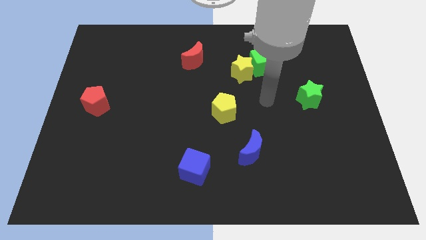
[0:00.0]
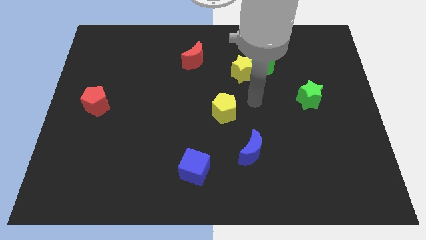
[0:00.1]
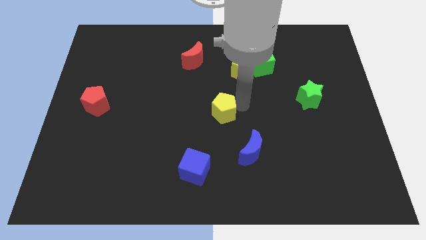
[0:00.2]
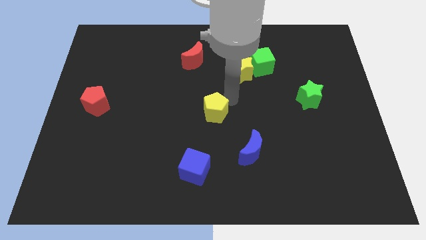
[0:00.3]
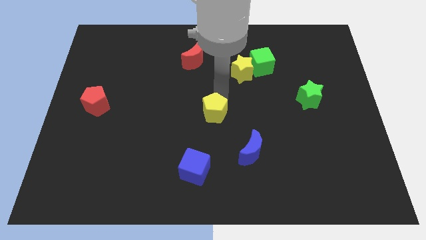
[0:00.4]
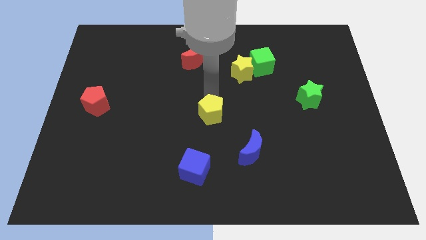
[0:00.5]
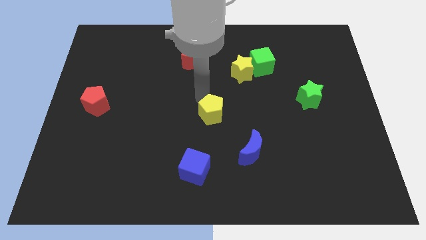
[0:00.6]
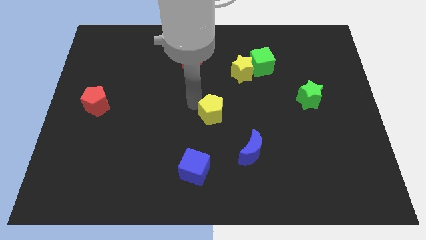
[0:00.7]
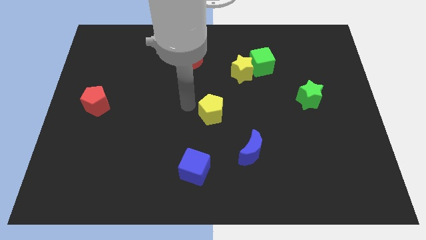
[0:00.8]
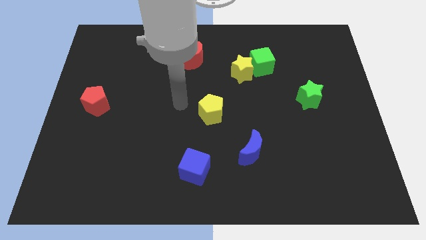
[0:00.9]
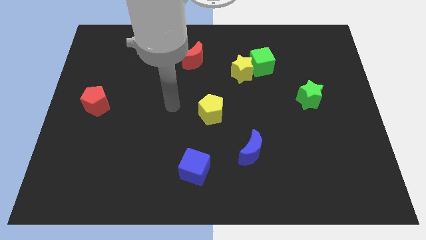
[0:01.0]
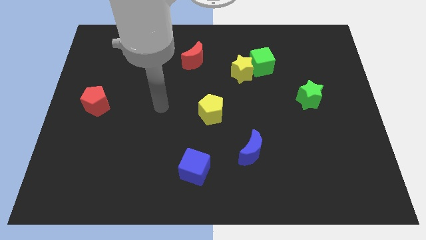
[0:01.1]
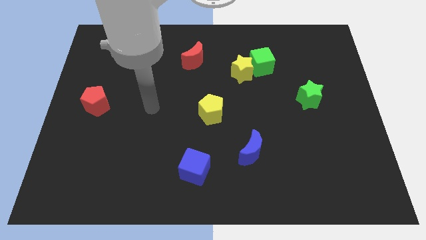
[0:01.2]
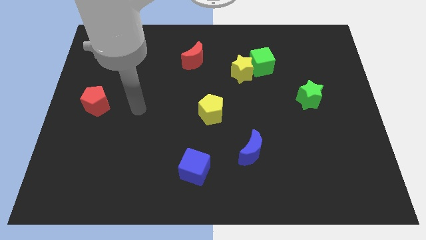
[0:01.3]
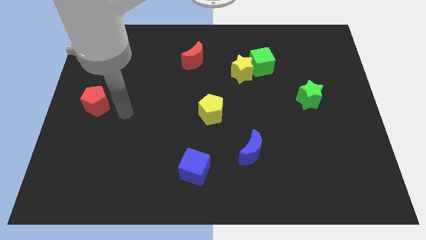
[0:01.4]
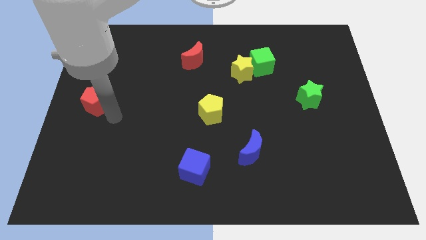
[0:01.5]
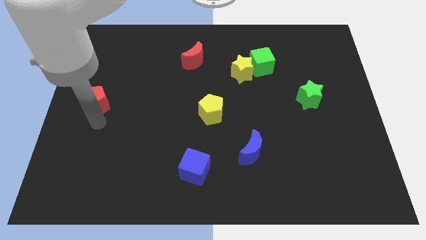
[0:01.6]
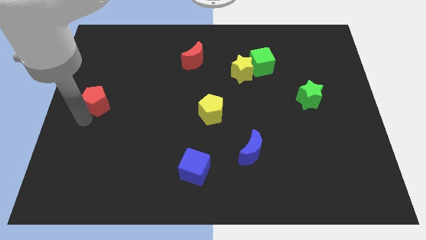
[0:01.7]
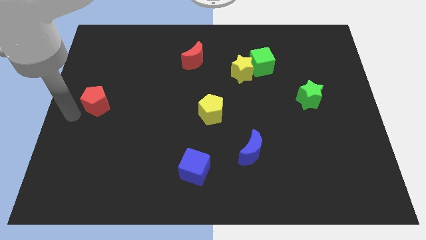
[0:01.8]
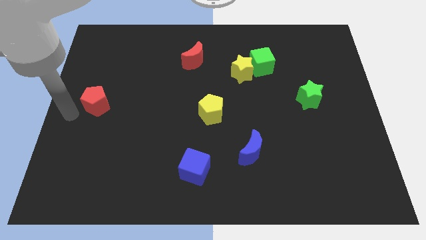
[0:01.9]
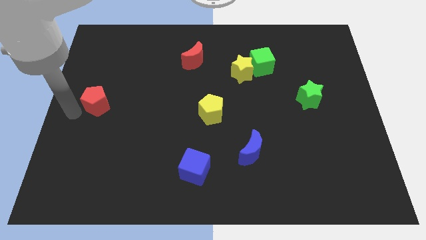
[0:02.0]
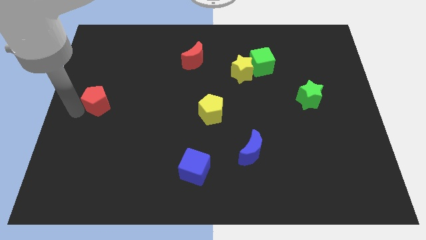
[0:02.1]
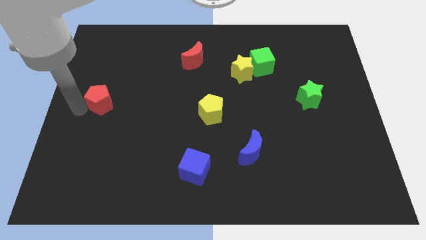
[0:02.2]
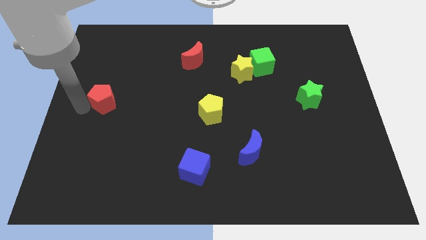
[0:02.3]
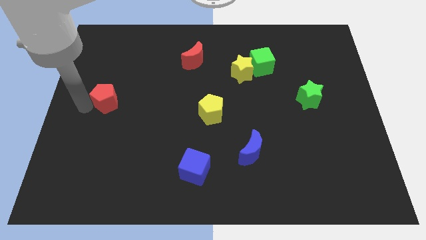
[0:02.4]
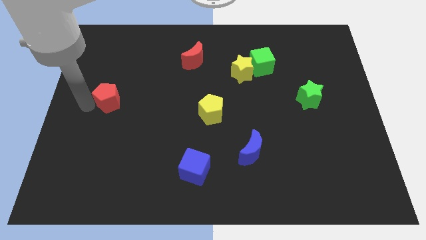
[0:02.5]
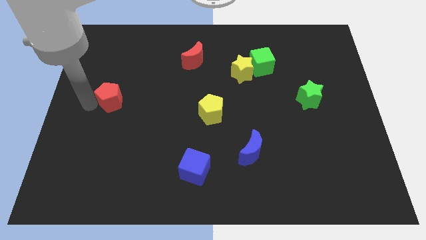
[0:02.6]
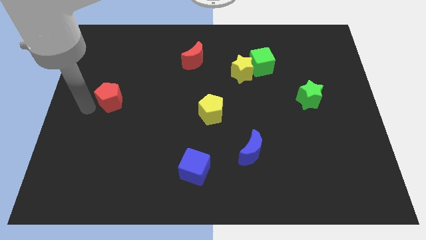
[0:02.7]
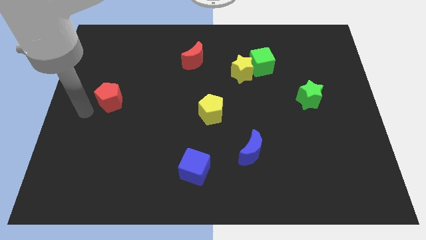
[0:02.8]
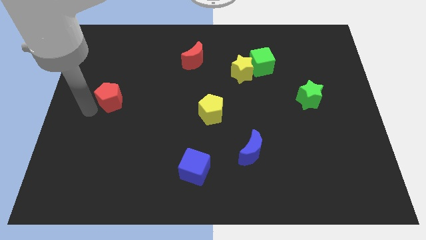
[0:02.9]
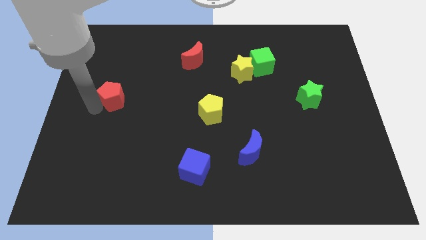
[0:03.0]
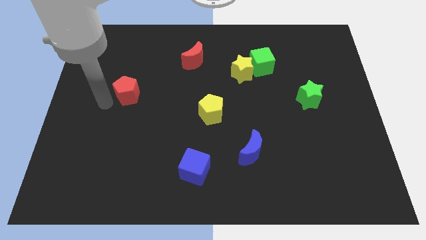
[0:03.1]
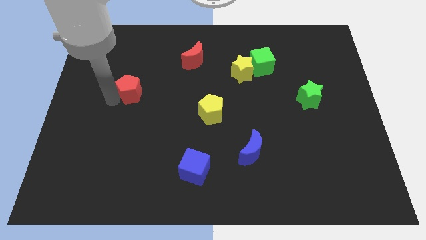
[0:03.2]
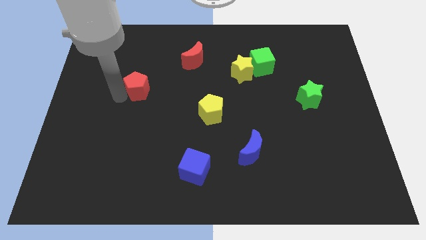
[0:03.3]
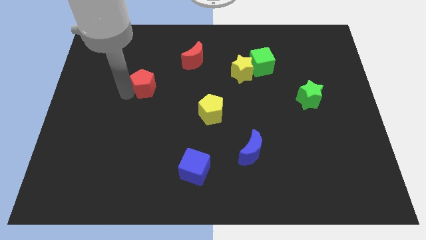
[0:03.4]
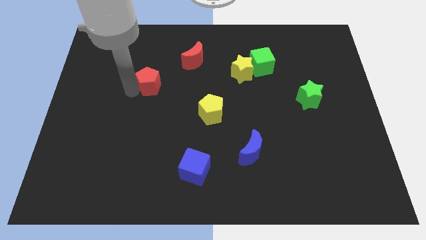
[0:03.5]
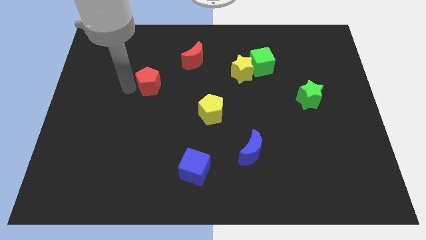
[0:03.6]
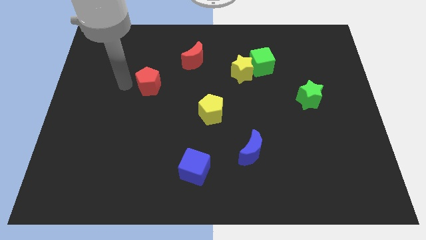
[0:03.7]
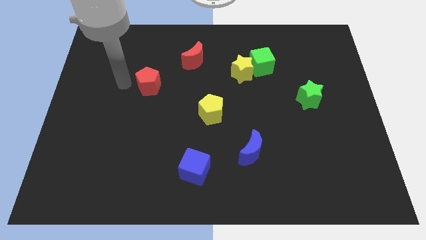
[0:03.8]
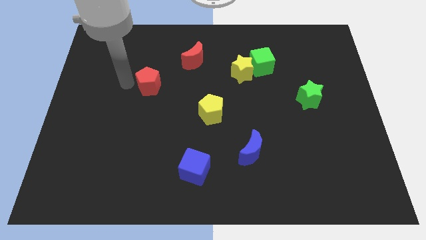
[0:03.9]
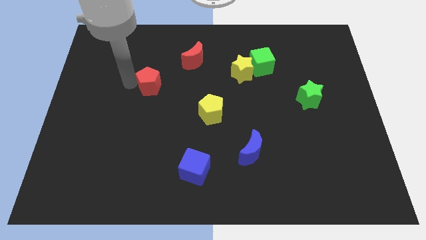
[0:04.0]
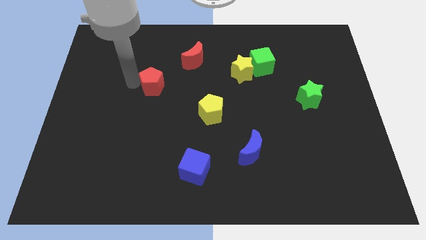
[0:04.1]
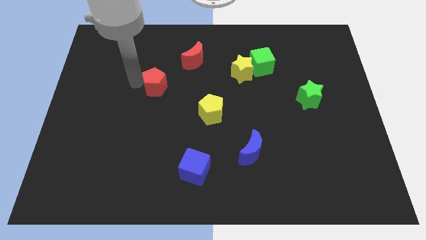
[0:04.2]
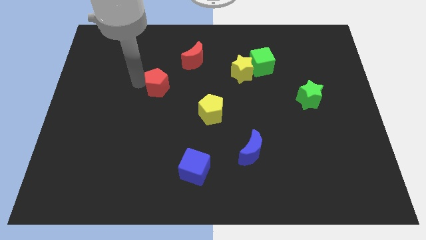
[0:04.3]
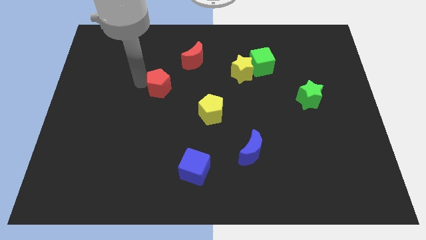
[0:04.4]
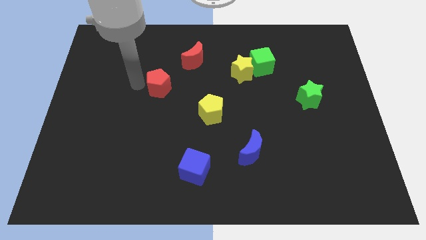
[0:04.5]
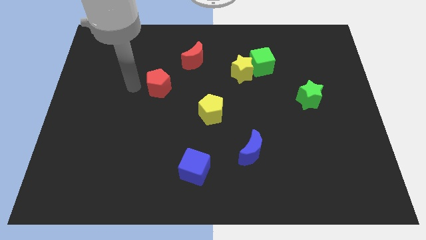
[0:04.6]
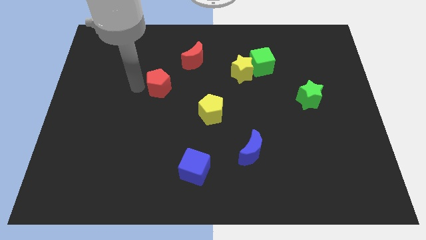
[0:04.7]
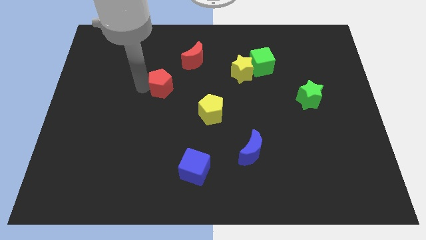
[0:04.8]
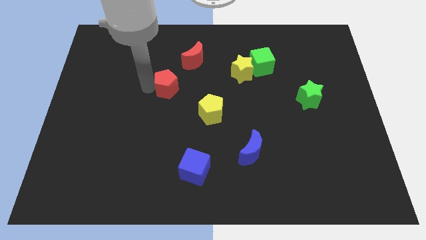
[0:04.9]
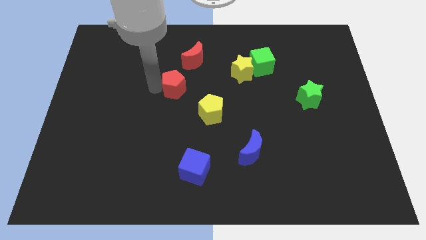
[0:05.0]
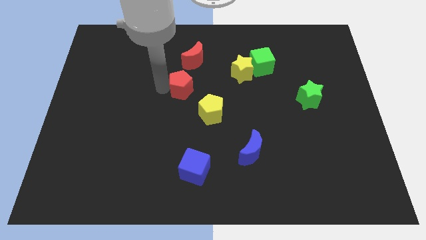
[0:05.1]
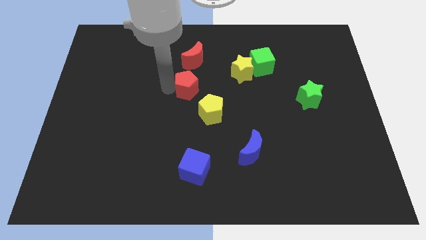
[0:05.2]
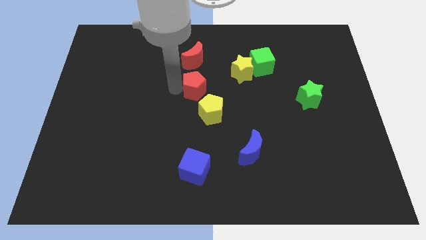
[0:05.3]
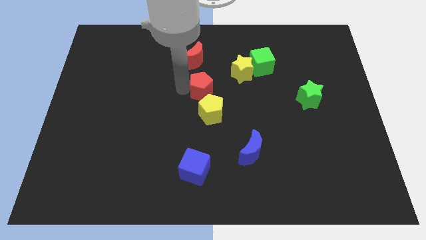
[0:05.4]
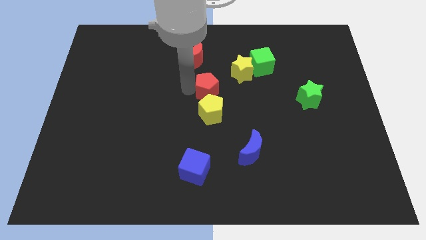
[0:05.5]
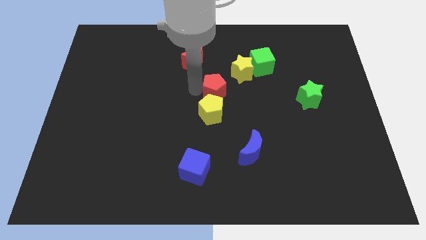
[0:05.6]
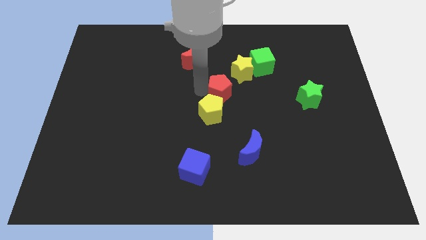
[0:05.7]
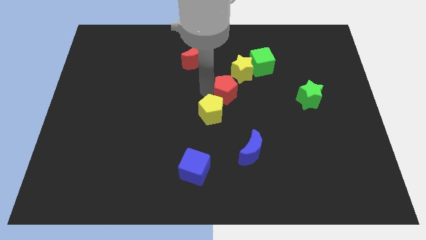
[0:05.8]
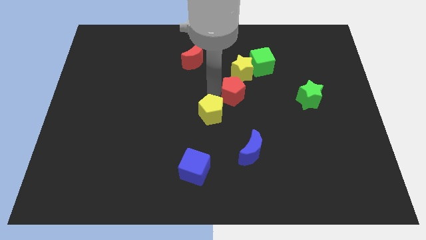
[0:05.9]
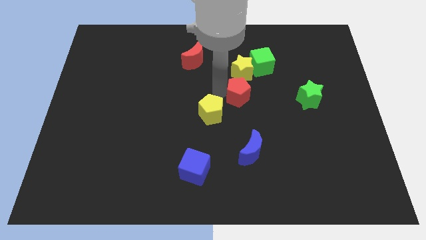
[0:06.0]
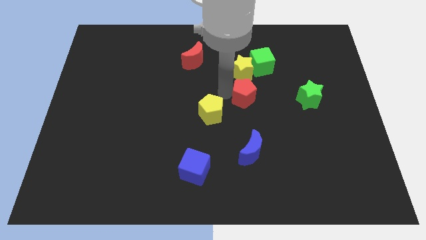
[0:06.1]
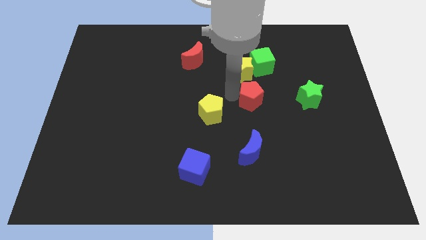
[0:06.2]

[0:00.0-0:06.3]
move the red pentagon below the green cube
